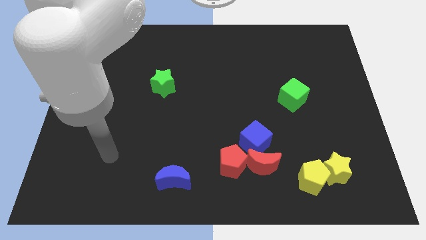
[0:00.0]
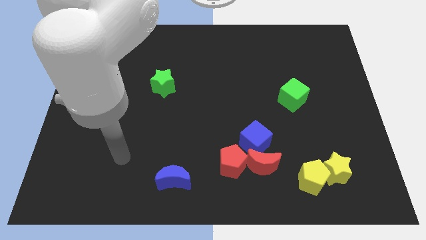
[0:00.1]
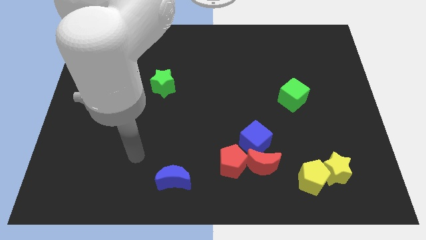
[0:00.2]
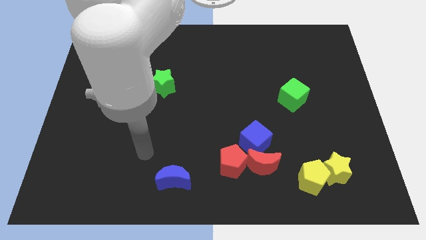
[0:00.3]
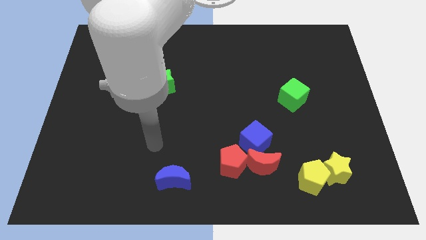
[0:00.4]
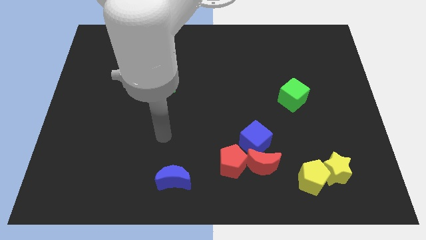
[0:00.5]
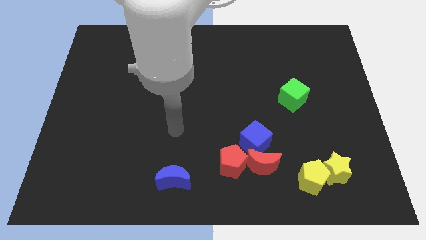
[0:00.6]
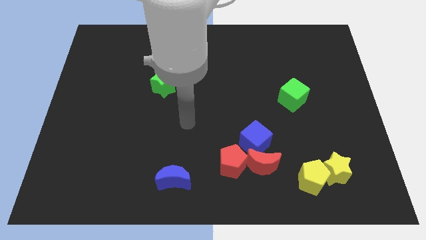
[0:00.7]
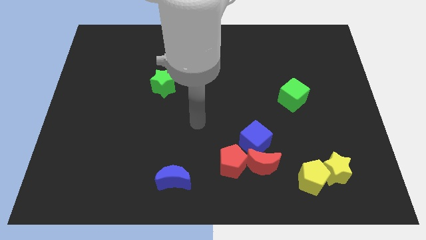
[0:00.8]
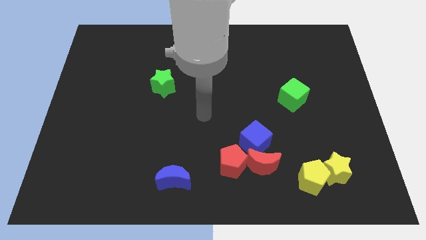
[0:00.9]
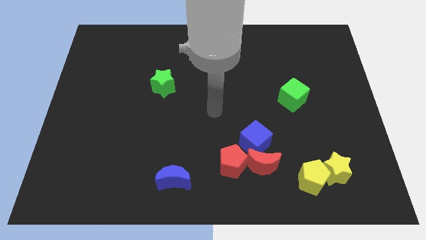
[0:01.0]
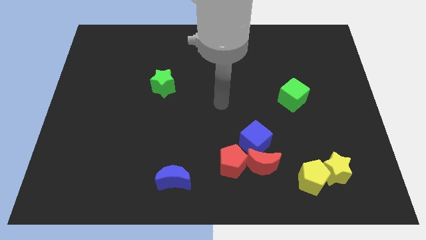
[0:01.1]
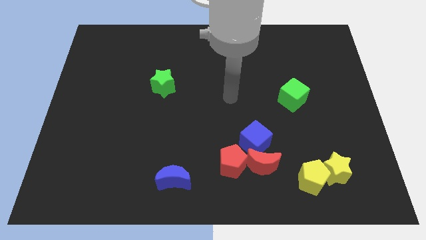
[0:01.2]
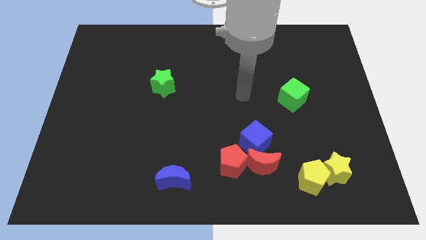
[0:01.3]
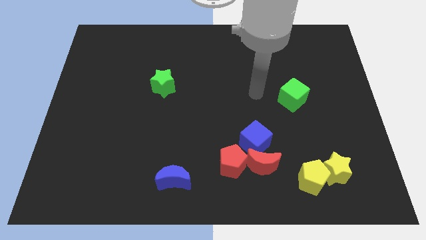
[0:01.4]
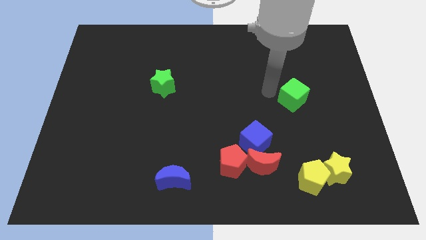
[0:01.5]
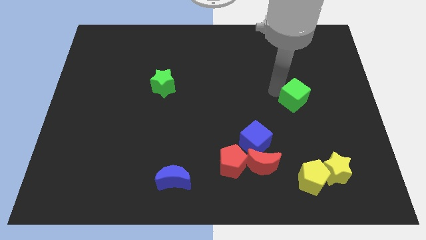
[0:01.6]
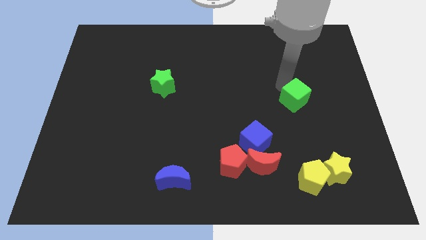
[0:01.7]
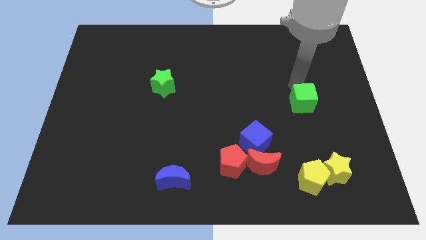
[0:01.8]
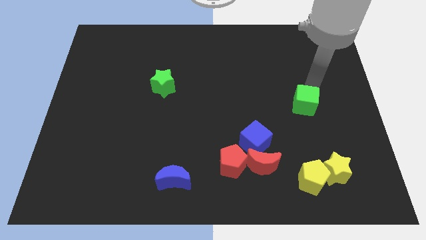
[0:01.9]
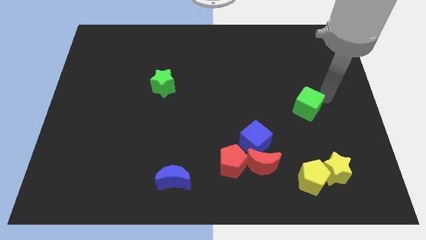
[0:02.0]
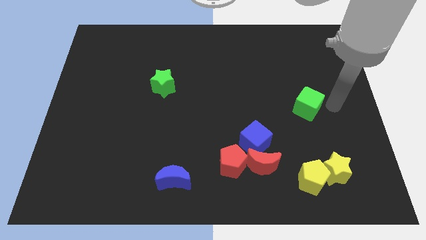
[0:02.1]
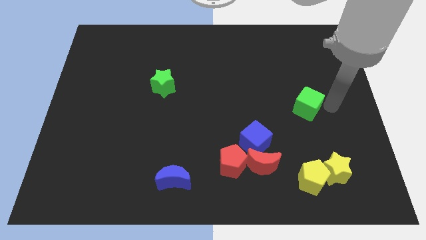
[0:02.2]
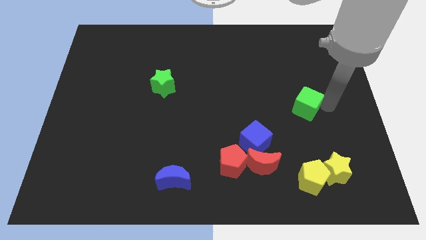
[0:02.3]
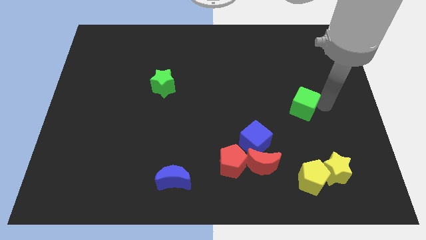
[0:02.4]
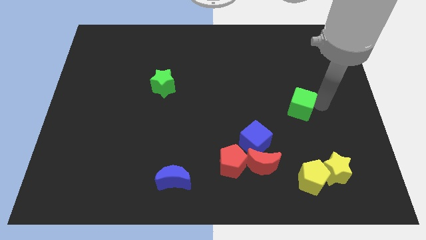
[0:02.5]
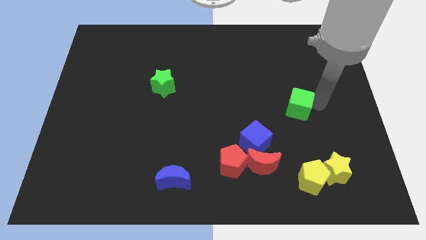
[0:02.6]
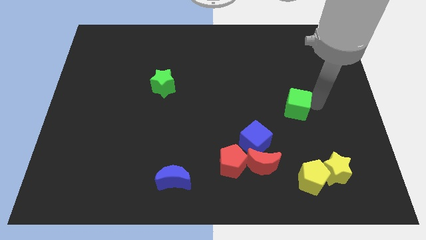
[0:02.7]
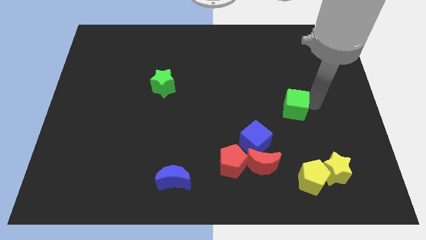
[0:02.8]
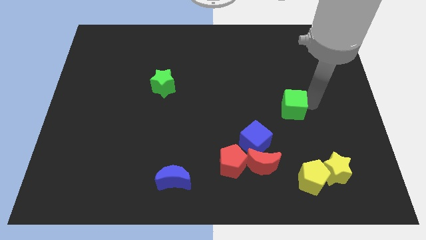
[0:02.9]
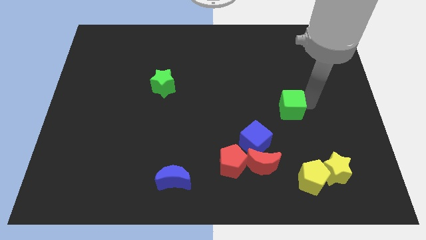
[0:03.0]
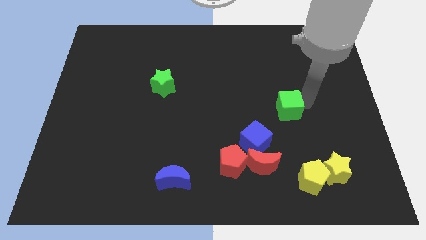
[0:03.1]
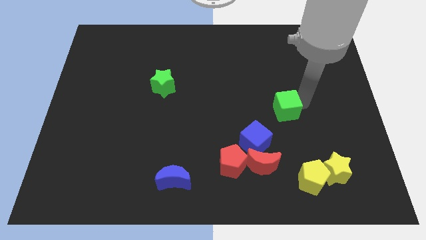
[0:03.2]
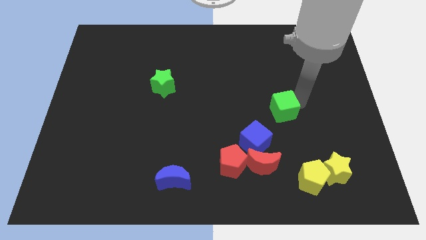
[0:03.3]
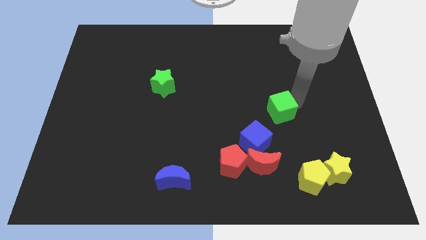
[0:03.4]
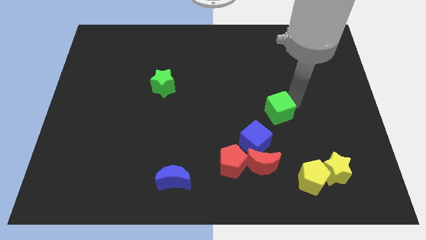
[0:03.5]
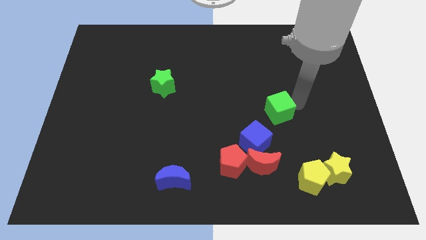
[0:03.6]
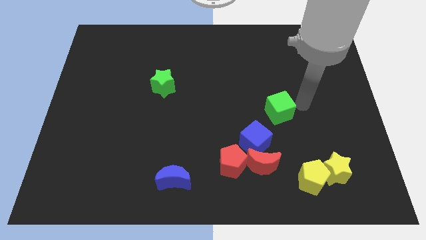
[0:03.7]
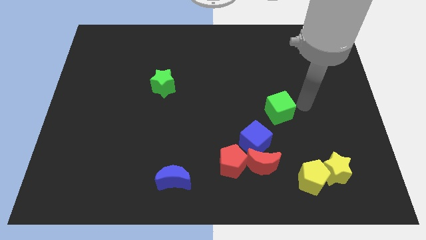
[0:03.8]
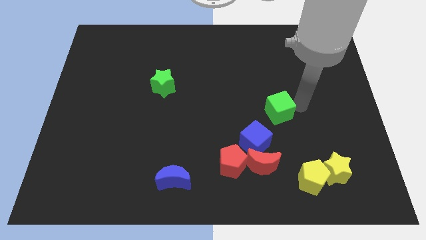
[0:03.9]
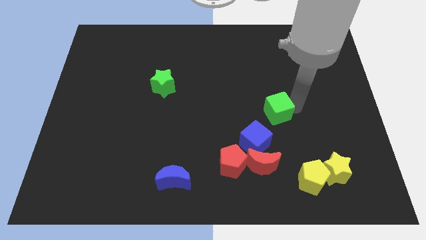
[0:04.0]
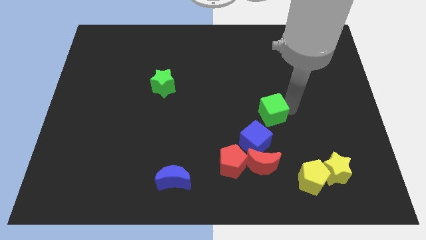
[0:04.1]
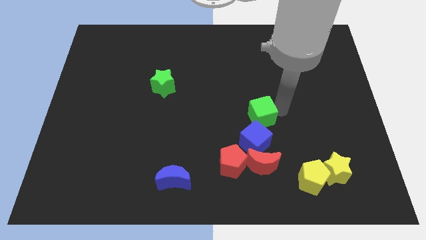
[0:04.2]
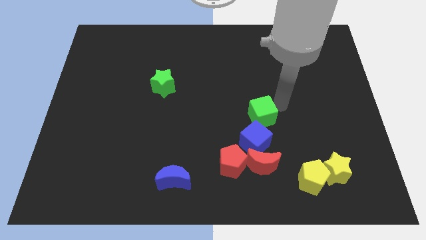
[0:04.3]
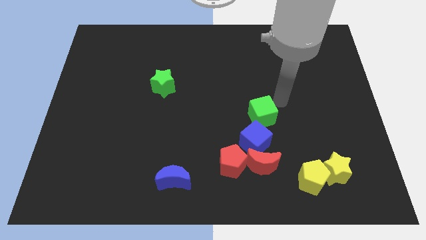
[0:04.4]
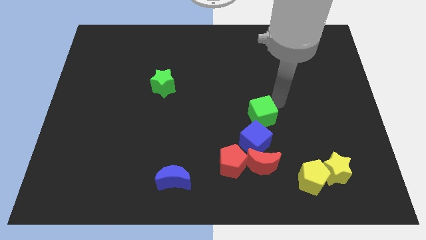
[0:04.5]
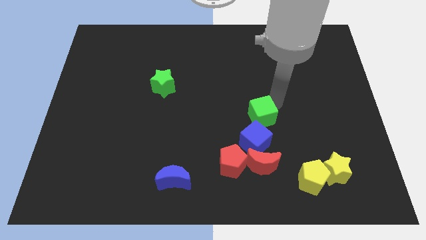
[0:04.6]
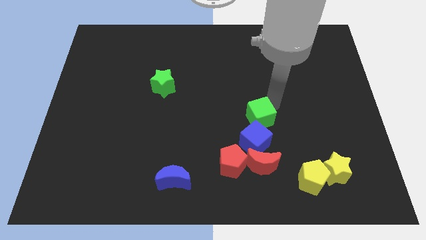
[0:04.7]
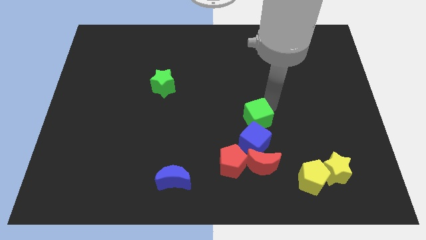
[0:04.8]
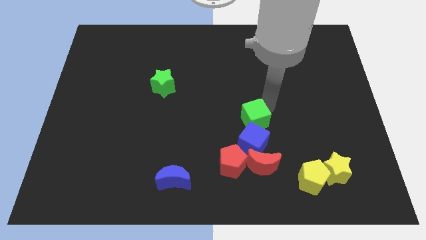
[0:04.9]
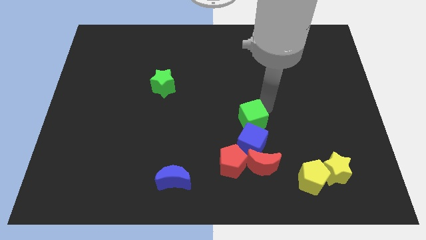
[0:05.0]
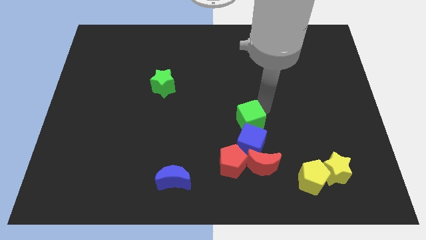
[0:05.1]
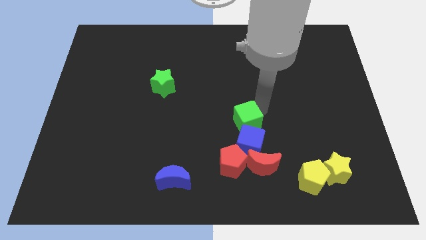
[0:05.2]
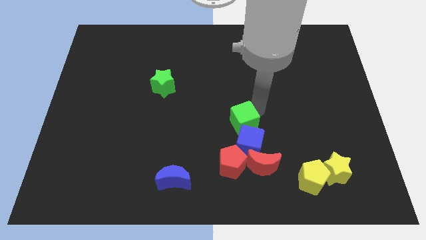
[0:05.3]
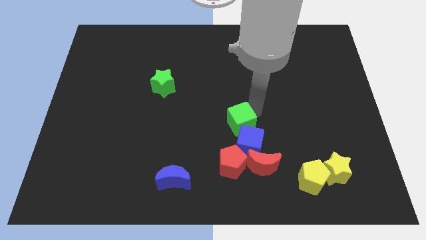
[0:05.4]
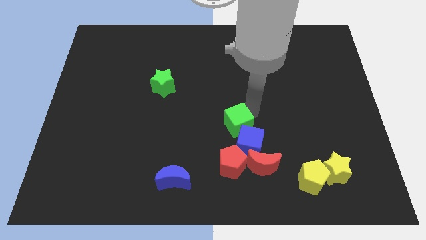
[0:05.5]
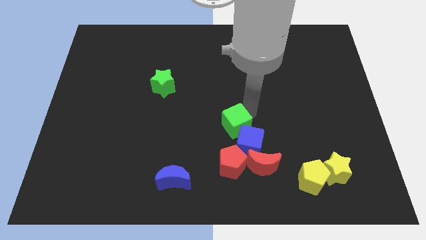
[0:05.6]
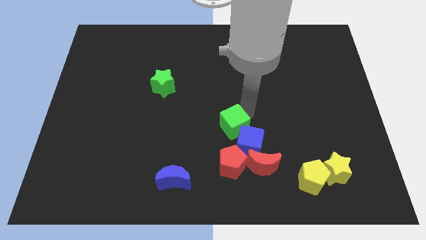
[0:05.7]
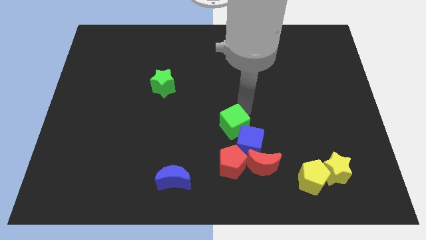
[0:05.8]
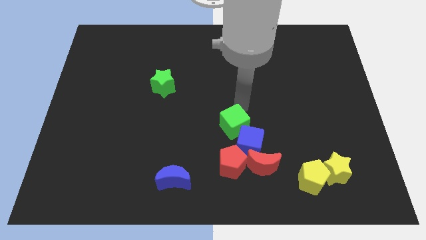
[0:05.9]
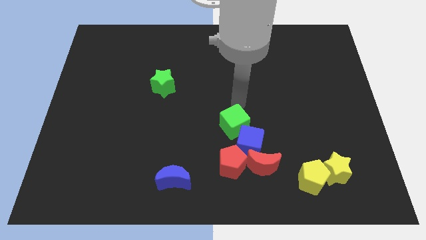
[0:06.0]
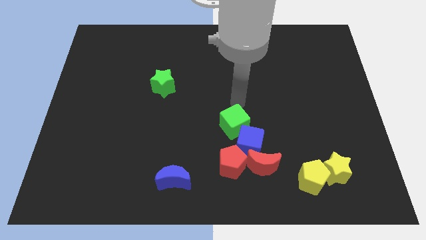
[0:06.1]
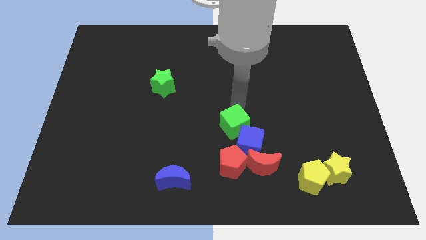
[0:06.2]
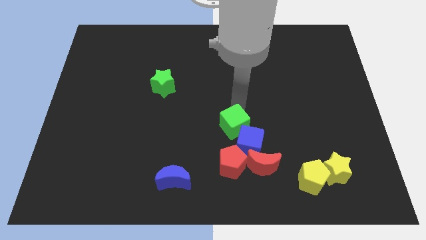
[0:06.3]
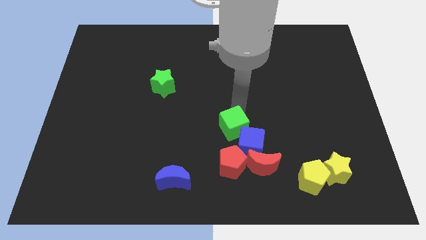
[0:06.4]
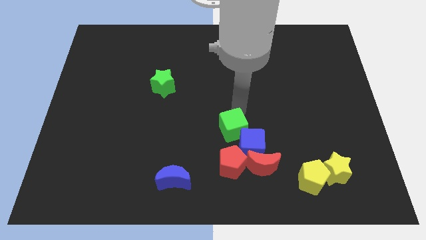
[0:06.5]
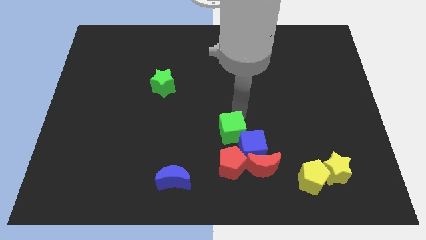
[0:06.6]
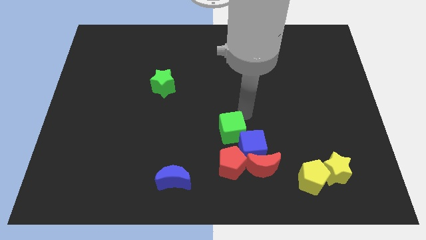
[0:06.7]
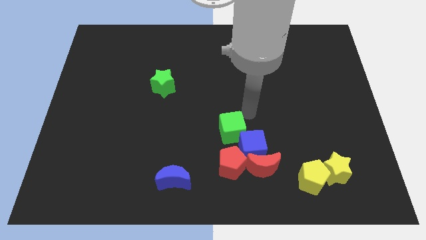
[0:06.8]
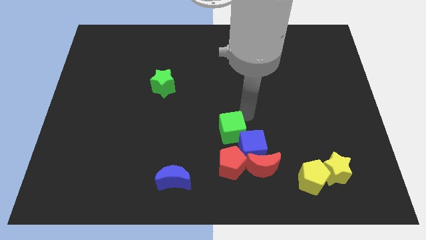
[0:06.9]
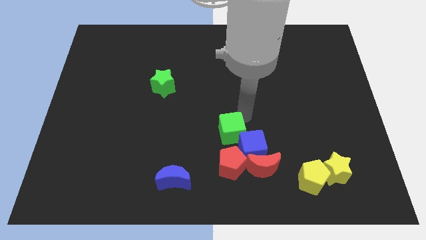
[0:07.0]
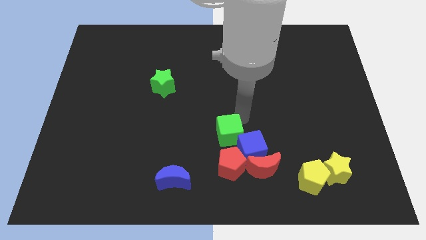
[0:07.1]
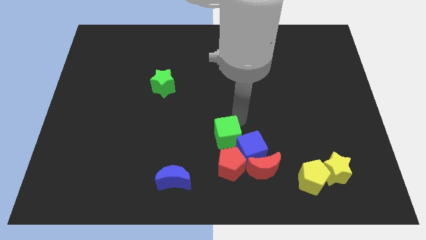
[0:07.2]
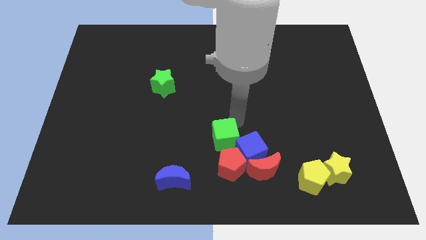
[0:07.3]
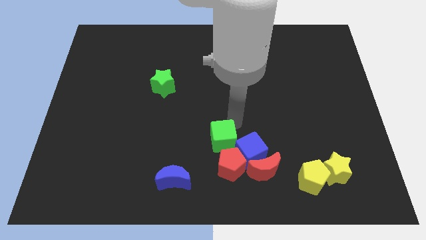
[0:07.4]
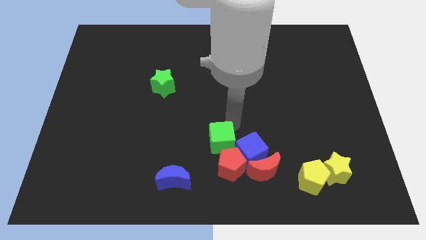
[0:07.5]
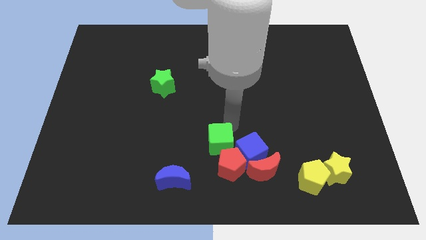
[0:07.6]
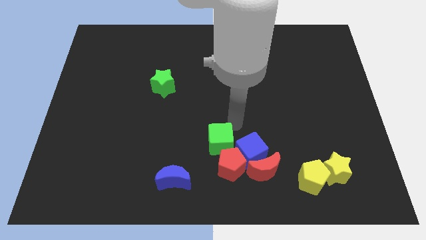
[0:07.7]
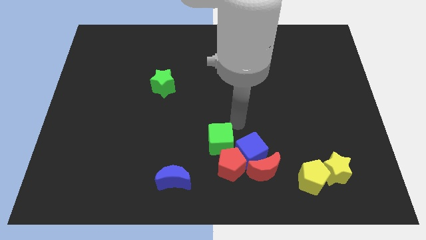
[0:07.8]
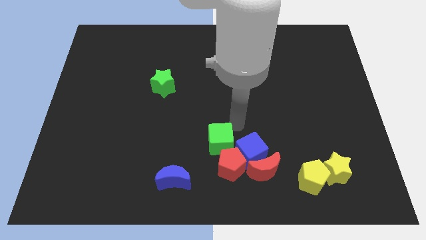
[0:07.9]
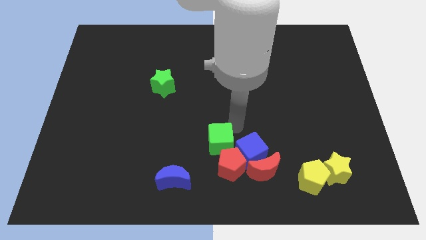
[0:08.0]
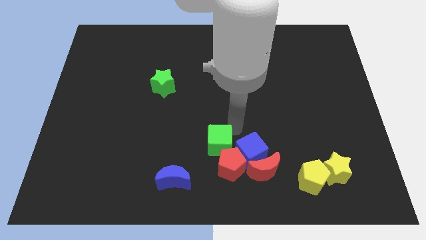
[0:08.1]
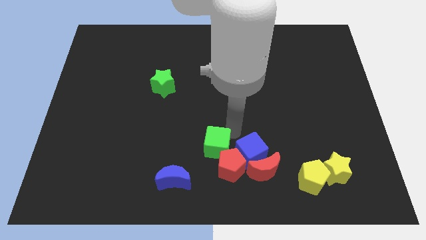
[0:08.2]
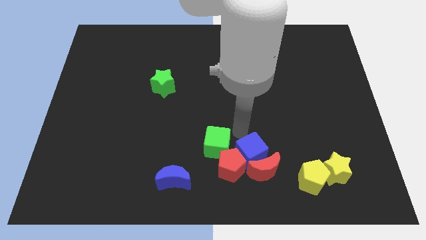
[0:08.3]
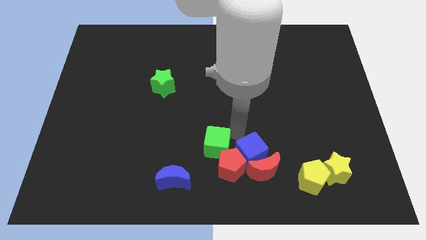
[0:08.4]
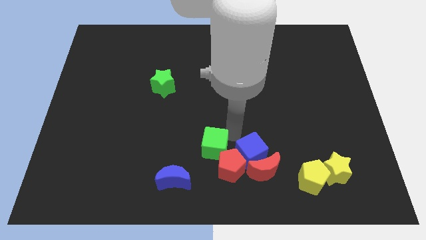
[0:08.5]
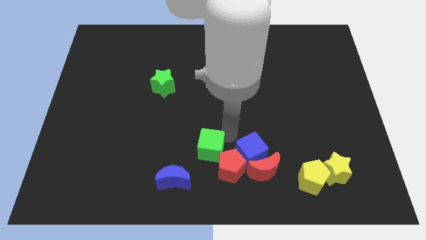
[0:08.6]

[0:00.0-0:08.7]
put the green cube to the left of the red pentagon
